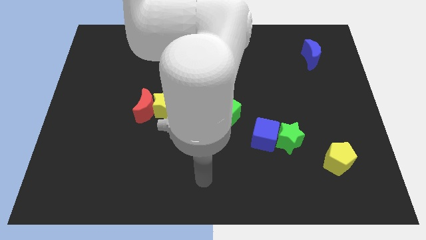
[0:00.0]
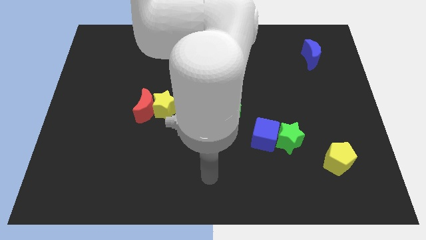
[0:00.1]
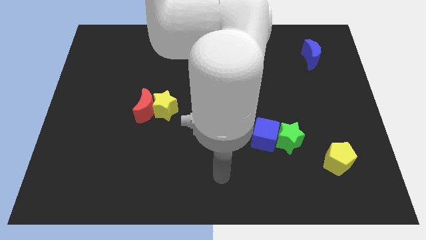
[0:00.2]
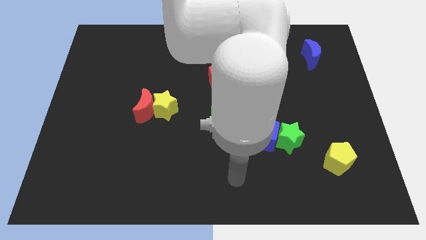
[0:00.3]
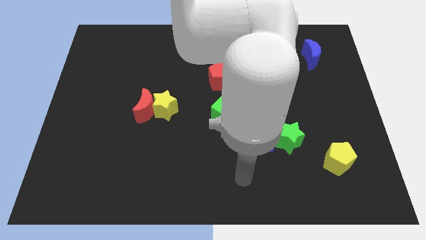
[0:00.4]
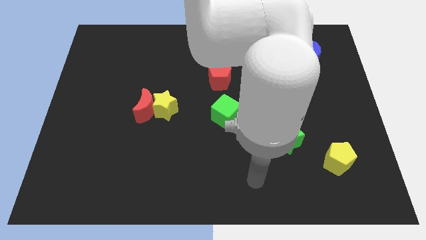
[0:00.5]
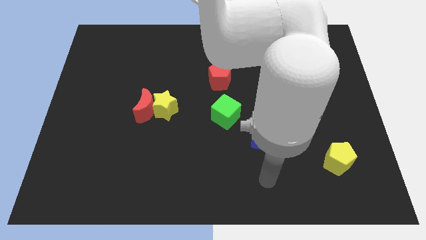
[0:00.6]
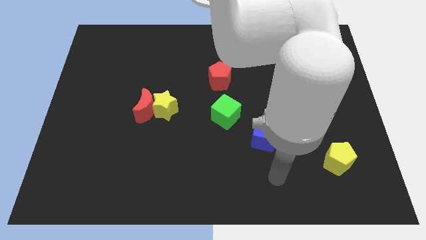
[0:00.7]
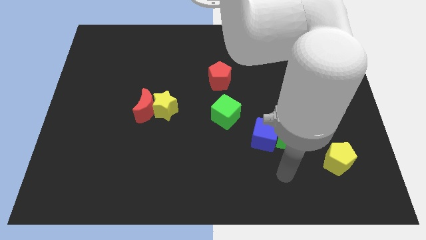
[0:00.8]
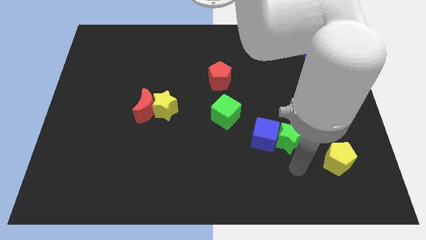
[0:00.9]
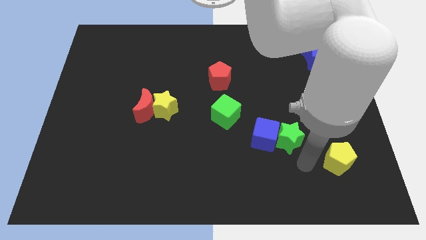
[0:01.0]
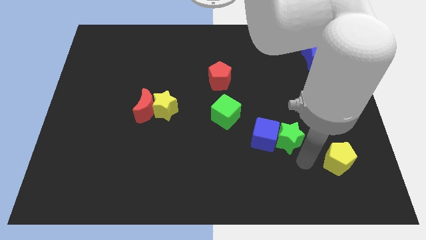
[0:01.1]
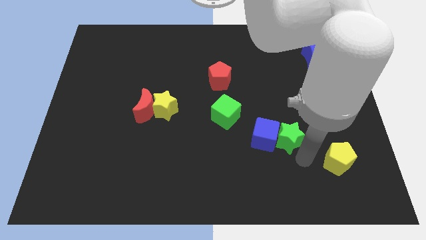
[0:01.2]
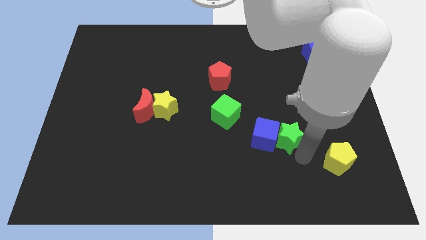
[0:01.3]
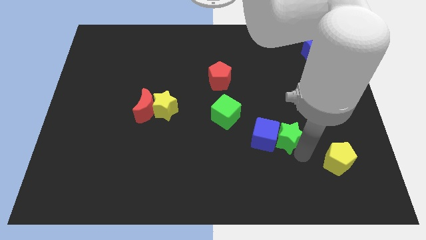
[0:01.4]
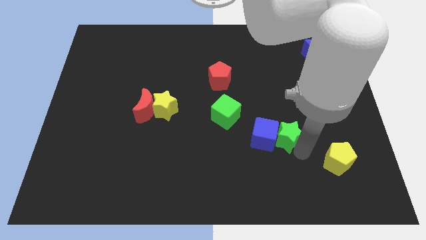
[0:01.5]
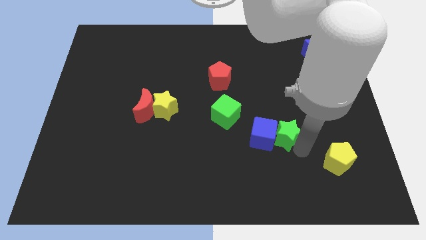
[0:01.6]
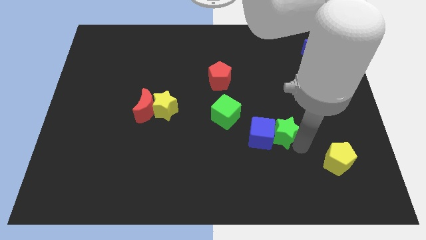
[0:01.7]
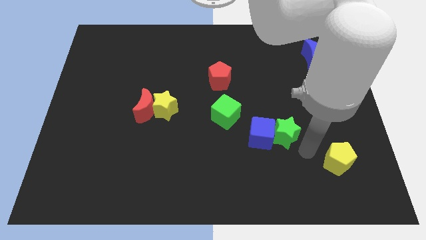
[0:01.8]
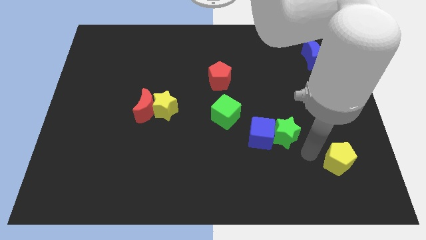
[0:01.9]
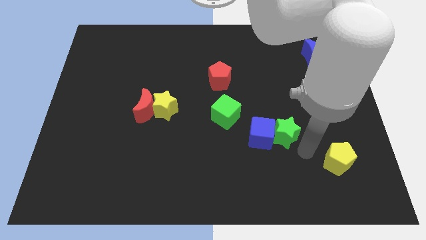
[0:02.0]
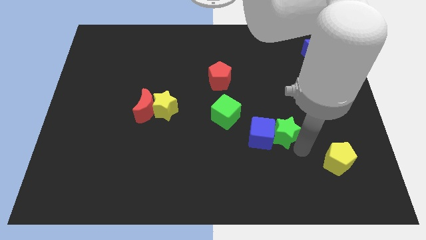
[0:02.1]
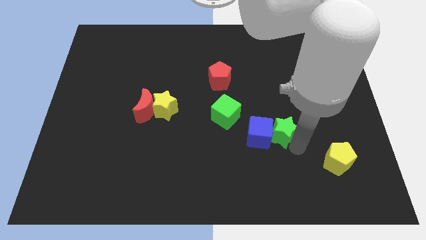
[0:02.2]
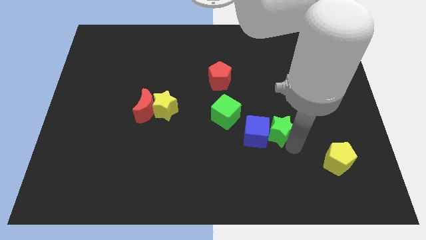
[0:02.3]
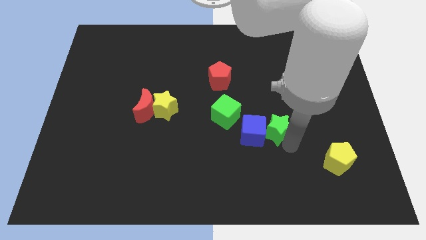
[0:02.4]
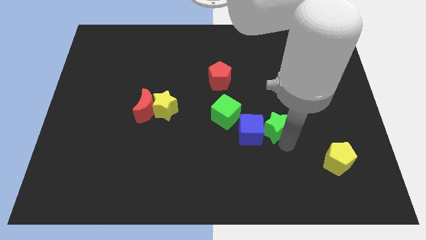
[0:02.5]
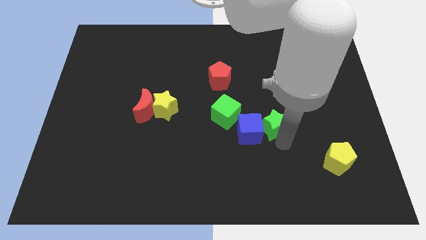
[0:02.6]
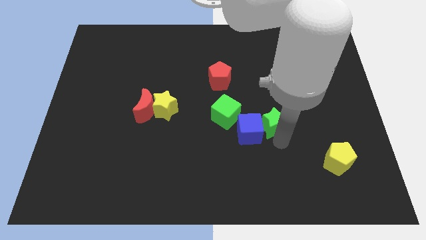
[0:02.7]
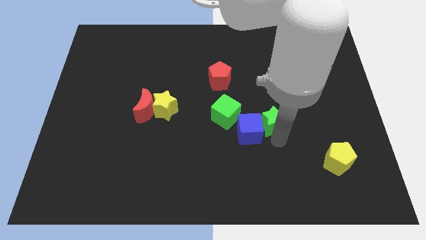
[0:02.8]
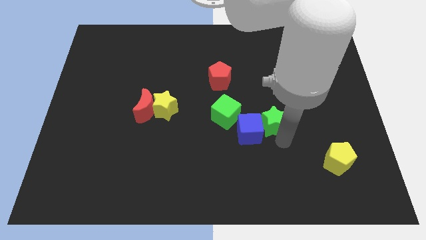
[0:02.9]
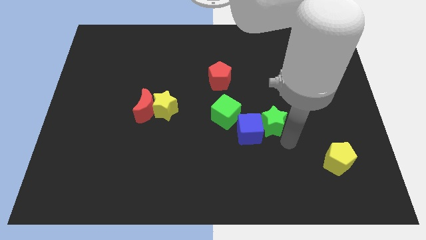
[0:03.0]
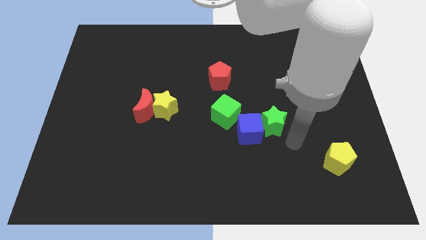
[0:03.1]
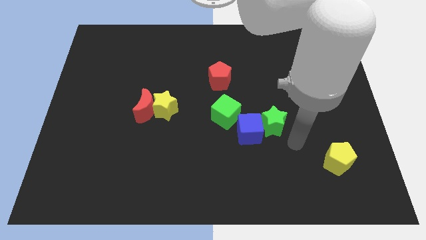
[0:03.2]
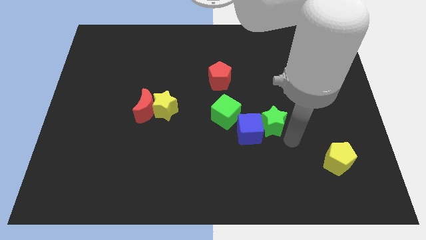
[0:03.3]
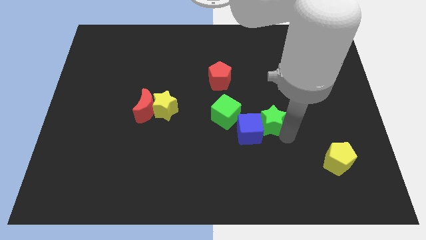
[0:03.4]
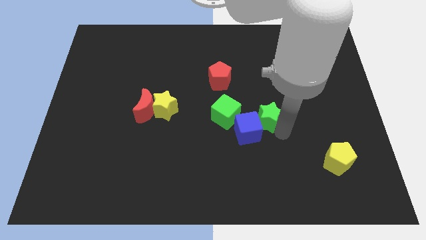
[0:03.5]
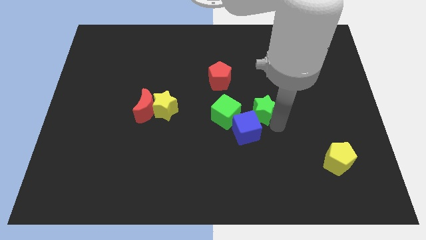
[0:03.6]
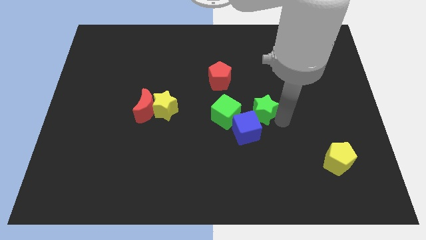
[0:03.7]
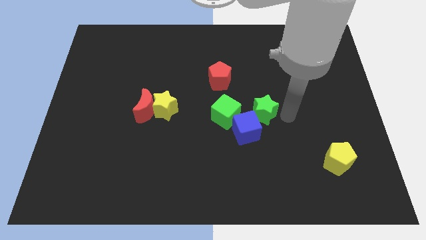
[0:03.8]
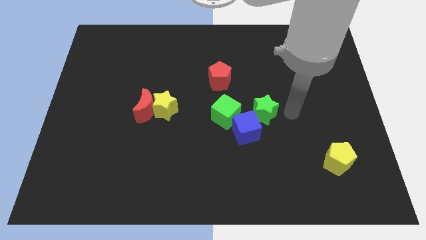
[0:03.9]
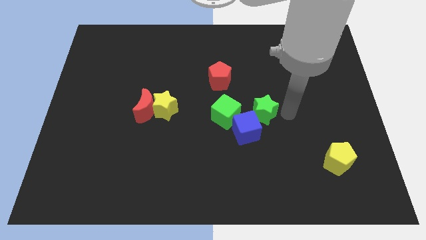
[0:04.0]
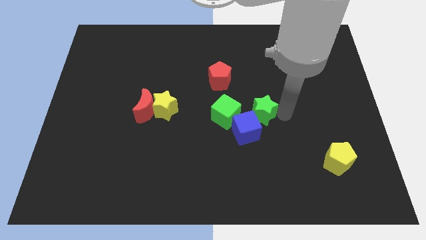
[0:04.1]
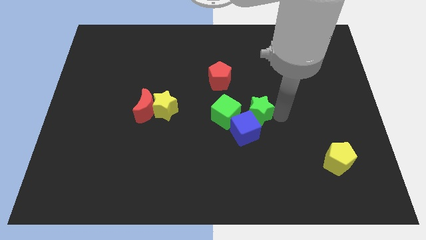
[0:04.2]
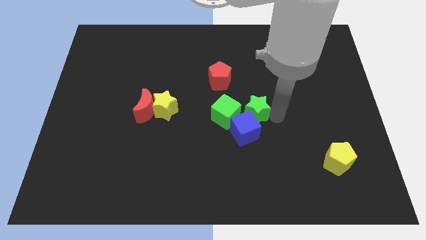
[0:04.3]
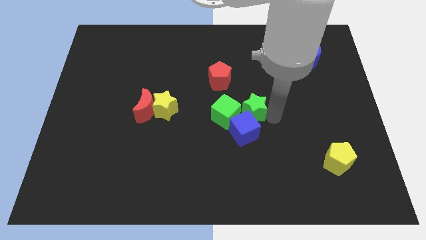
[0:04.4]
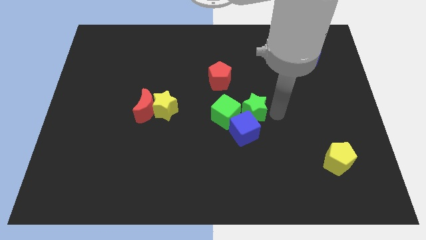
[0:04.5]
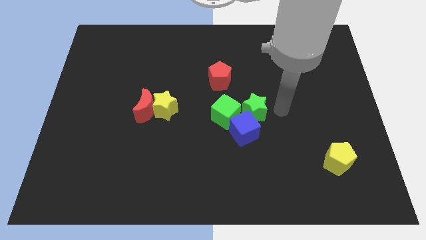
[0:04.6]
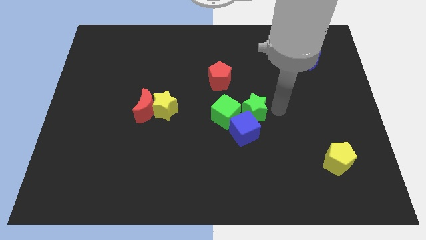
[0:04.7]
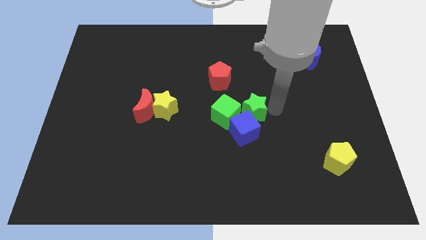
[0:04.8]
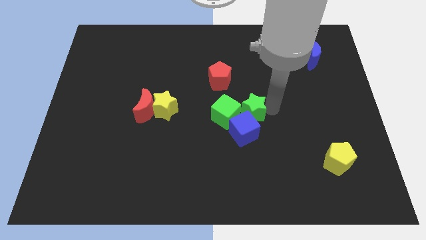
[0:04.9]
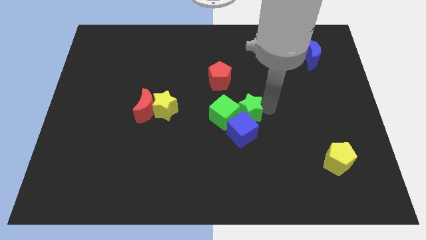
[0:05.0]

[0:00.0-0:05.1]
slide the green star close to the green cube

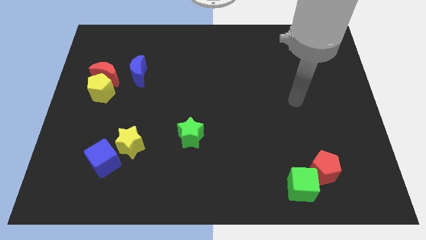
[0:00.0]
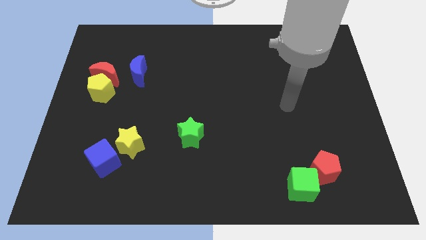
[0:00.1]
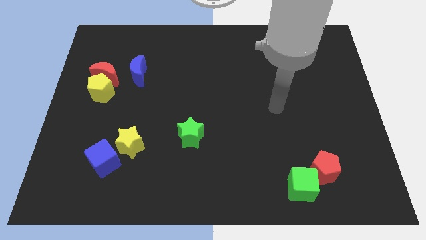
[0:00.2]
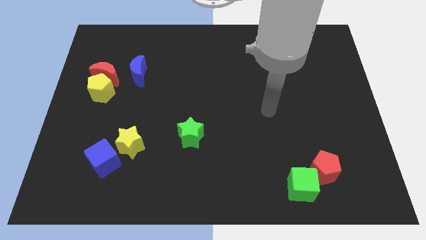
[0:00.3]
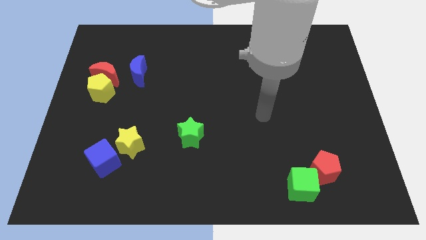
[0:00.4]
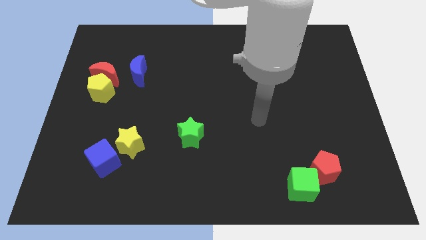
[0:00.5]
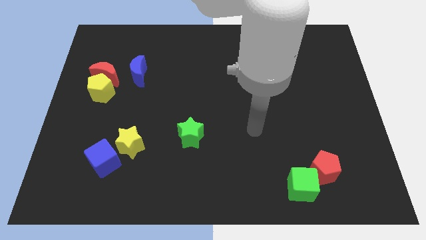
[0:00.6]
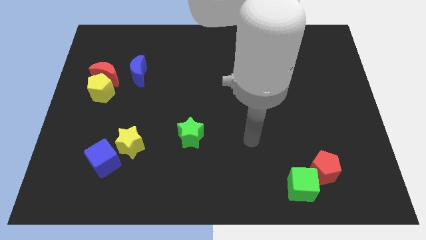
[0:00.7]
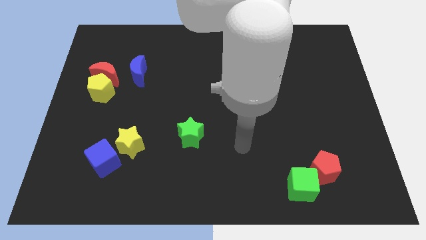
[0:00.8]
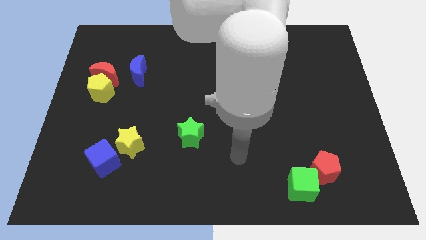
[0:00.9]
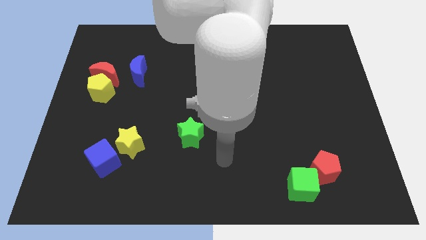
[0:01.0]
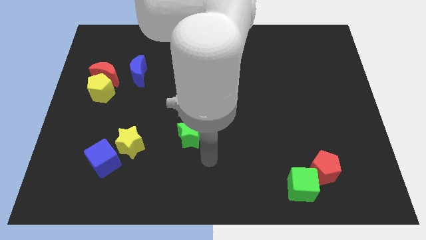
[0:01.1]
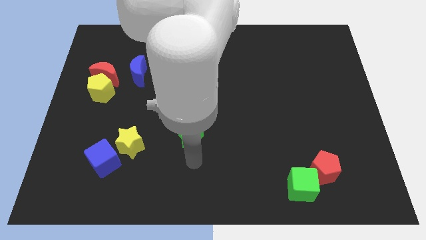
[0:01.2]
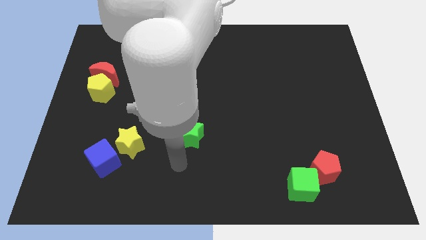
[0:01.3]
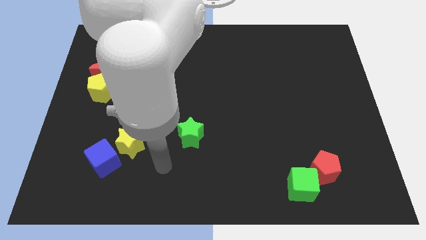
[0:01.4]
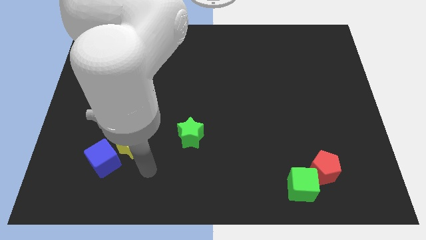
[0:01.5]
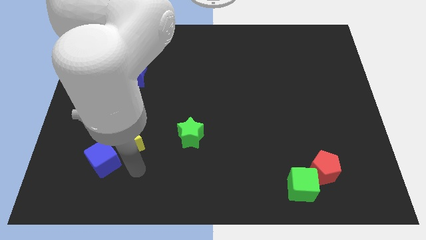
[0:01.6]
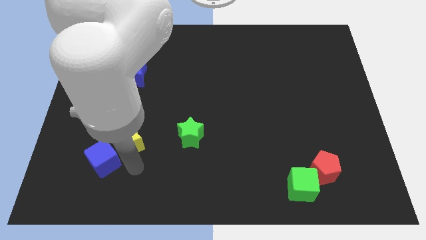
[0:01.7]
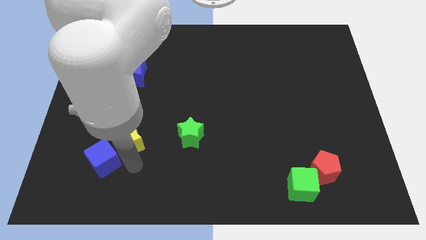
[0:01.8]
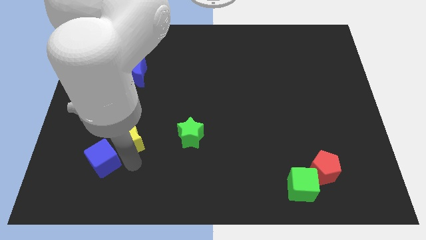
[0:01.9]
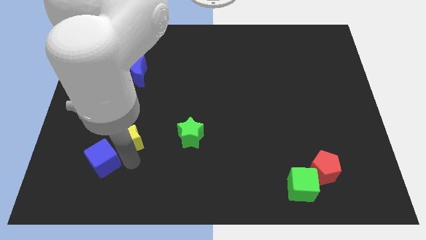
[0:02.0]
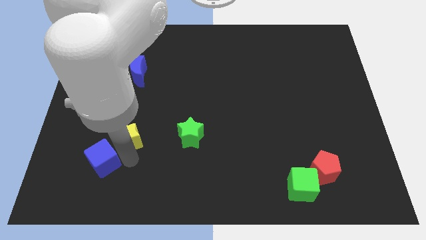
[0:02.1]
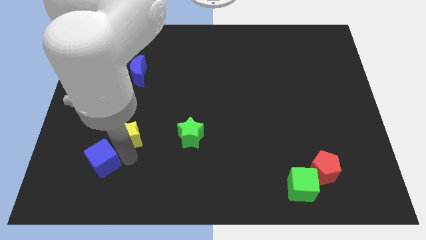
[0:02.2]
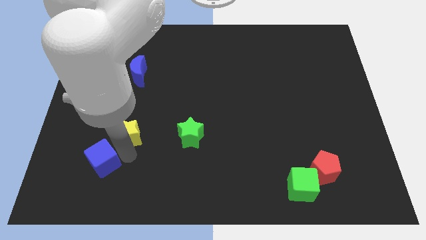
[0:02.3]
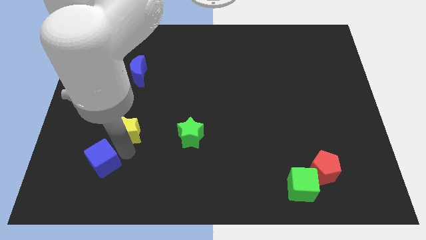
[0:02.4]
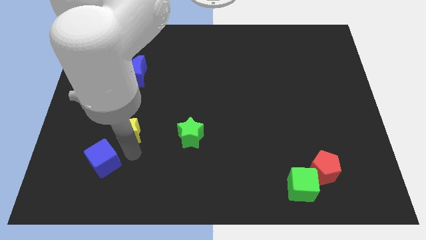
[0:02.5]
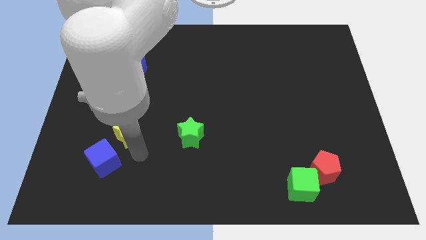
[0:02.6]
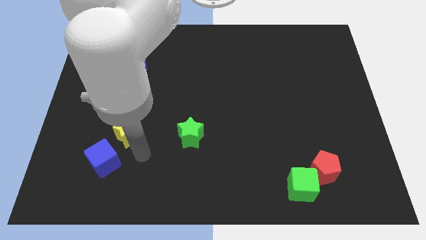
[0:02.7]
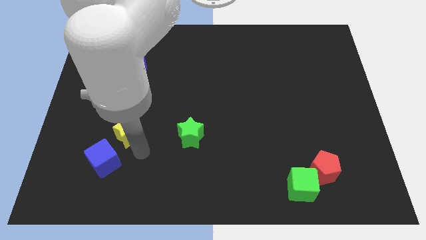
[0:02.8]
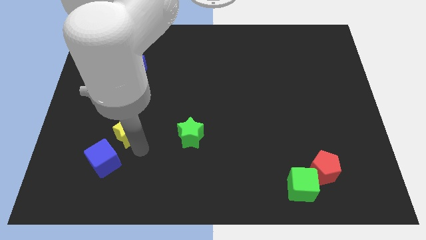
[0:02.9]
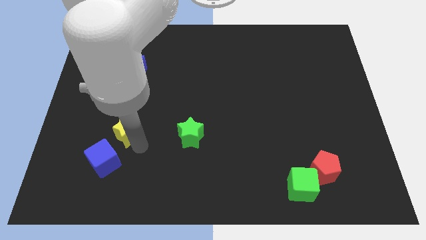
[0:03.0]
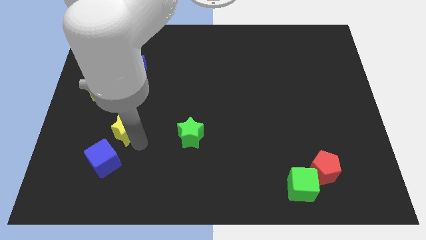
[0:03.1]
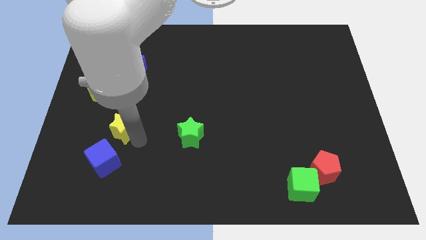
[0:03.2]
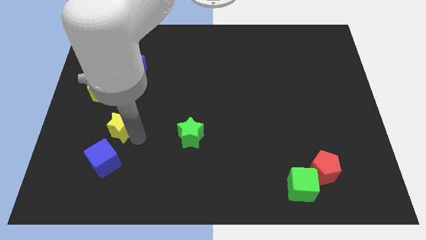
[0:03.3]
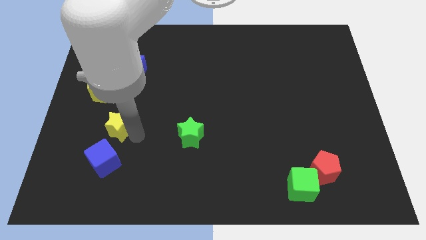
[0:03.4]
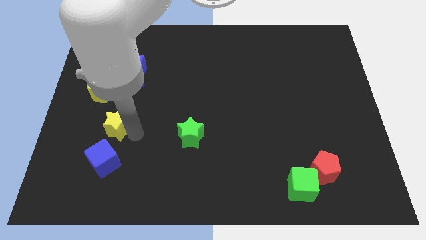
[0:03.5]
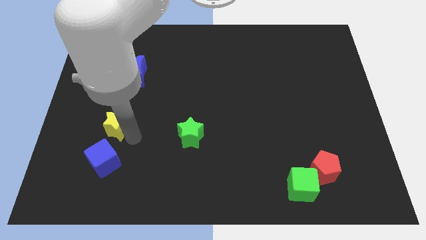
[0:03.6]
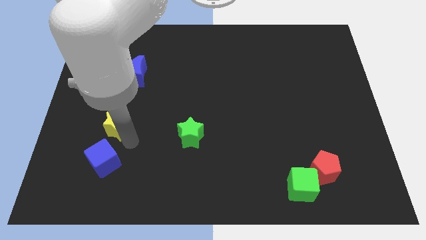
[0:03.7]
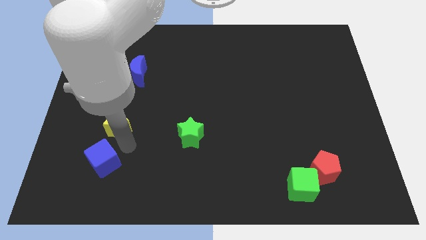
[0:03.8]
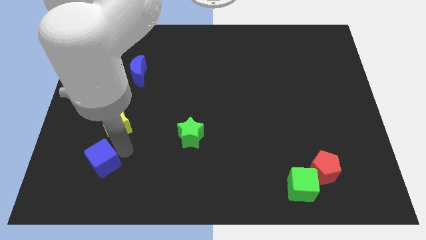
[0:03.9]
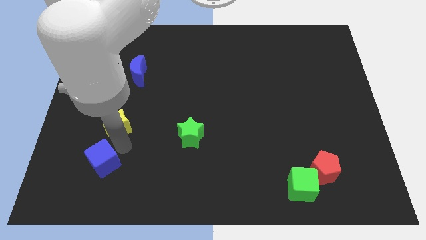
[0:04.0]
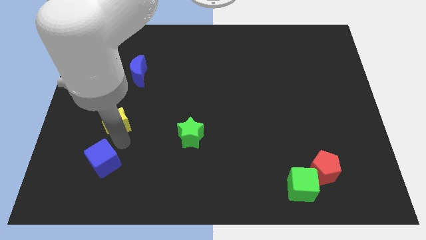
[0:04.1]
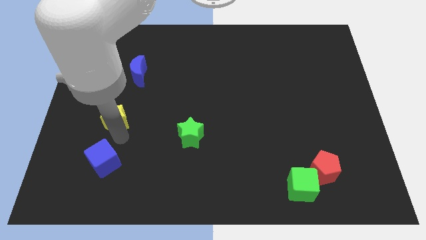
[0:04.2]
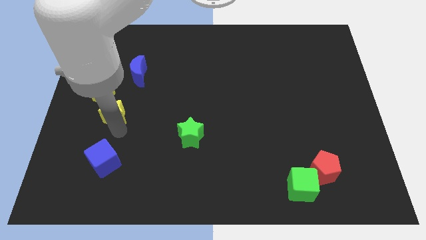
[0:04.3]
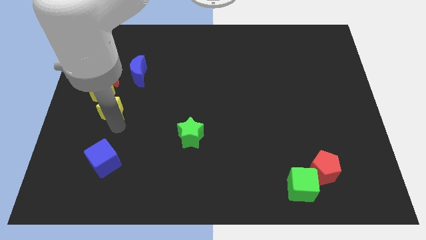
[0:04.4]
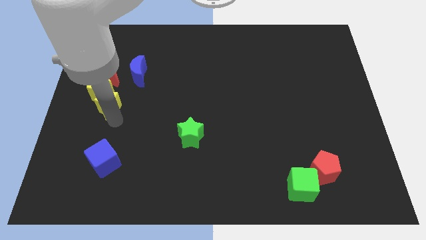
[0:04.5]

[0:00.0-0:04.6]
put the yellow star next to the yellow pentagon
